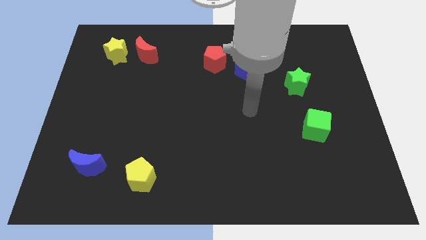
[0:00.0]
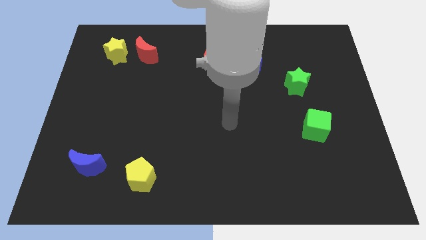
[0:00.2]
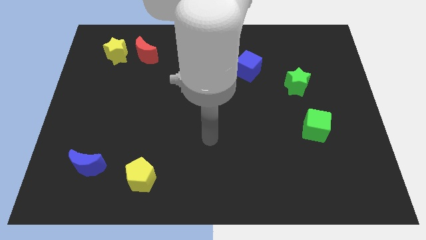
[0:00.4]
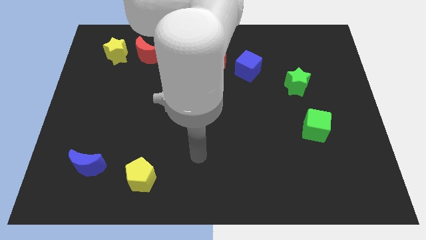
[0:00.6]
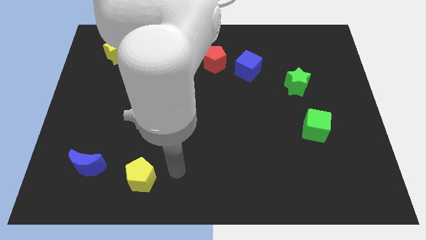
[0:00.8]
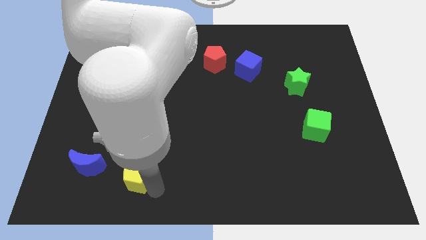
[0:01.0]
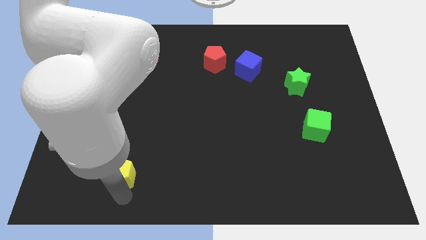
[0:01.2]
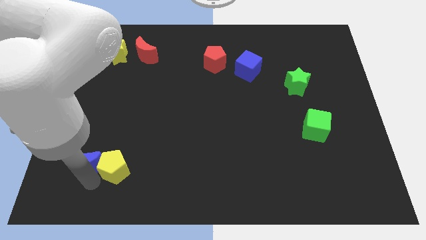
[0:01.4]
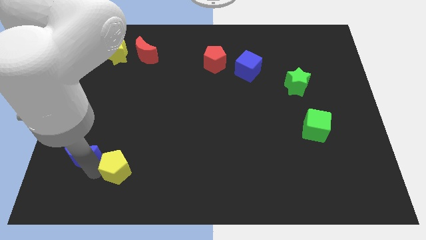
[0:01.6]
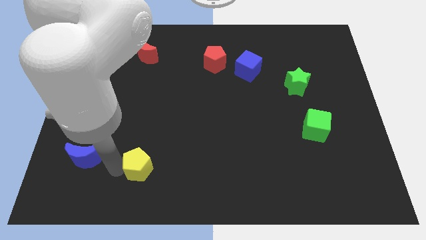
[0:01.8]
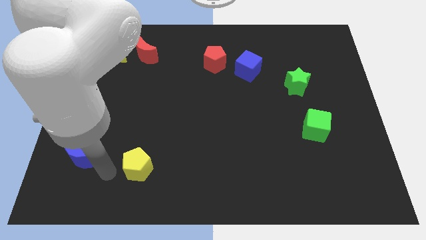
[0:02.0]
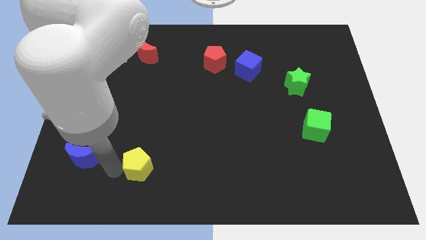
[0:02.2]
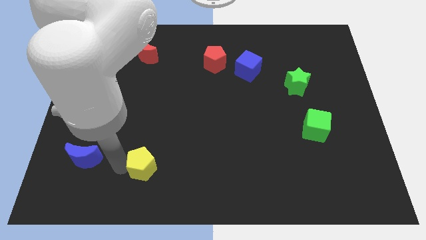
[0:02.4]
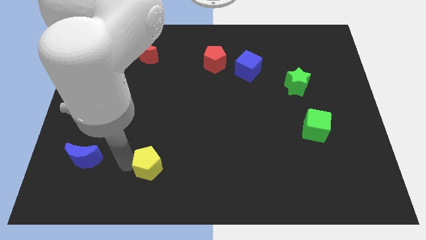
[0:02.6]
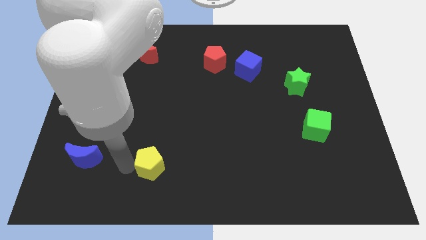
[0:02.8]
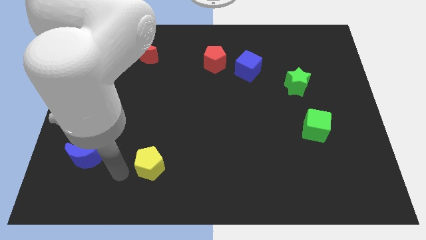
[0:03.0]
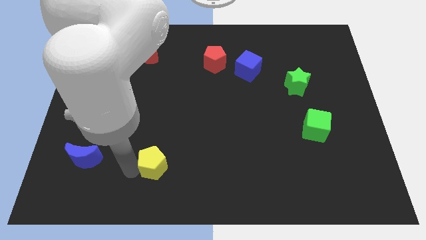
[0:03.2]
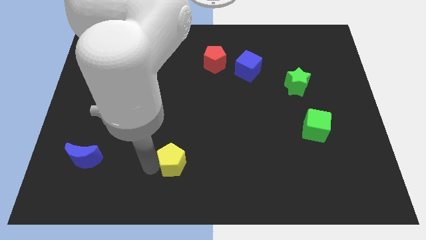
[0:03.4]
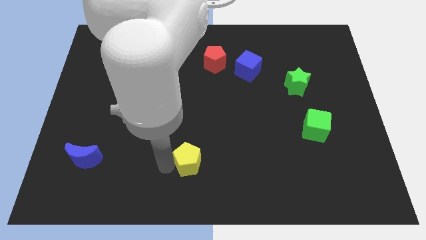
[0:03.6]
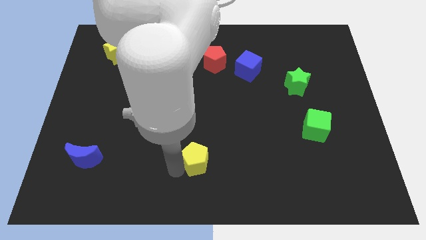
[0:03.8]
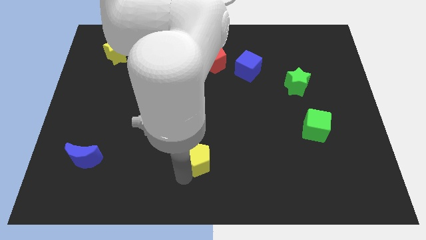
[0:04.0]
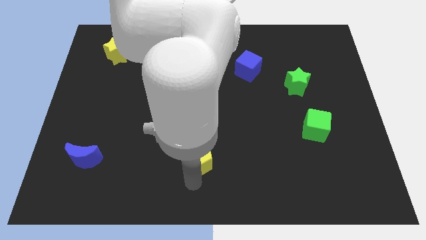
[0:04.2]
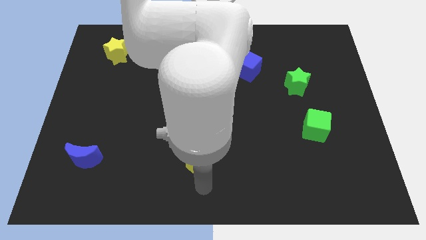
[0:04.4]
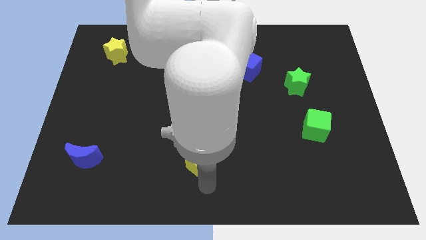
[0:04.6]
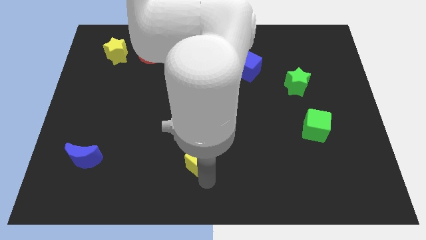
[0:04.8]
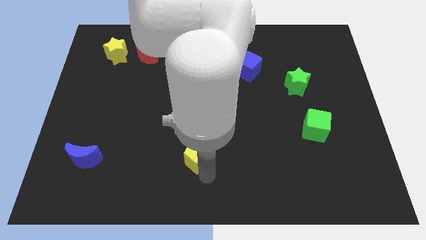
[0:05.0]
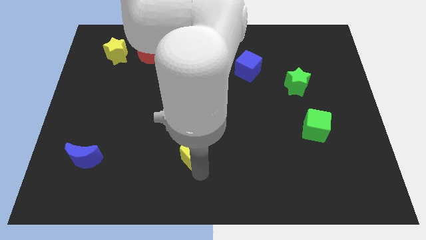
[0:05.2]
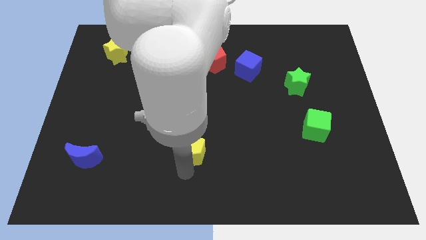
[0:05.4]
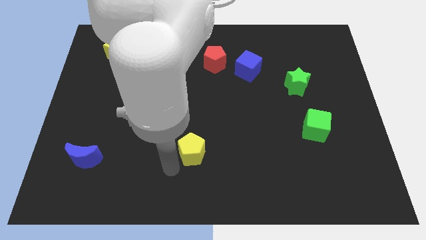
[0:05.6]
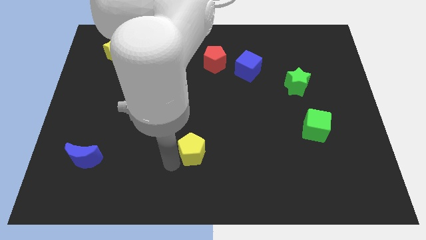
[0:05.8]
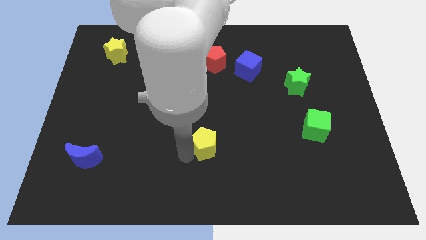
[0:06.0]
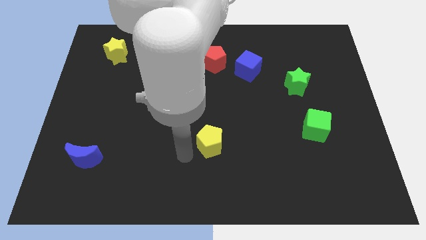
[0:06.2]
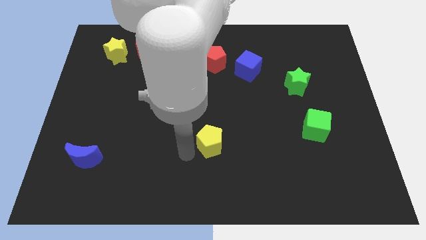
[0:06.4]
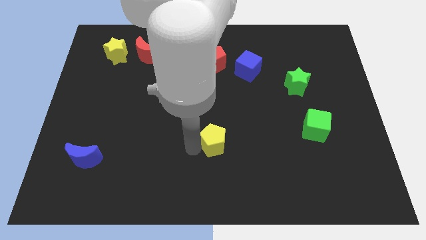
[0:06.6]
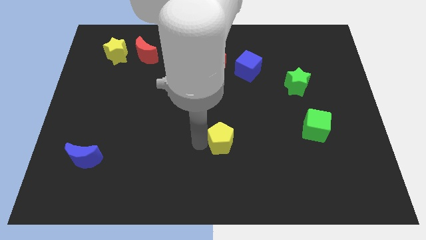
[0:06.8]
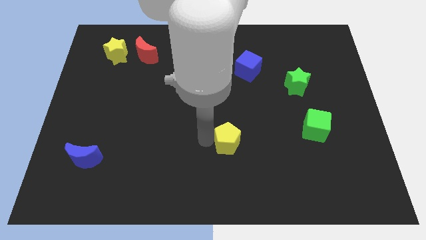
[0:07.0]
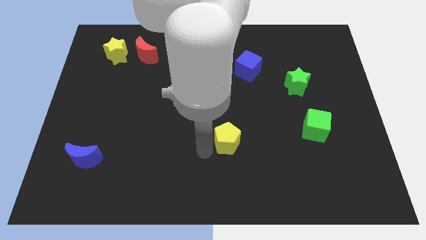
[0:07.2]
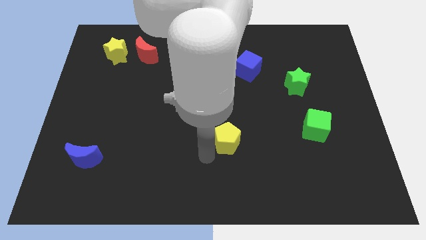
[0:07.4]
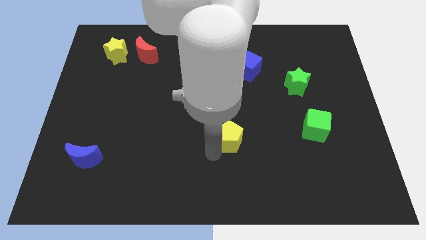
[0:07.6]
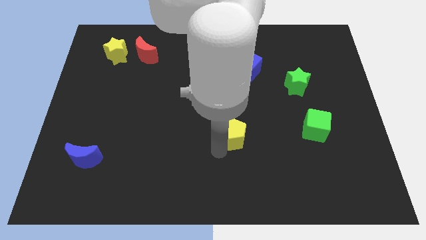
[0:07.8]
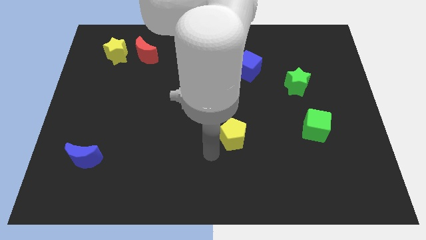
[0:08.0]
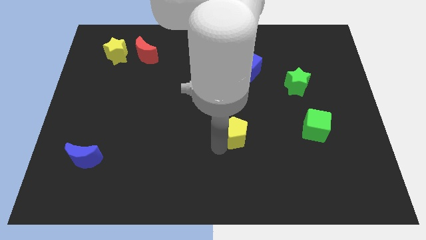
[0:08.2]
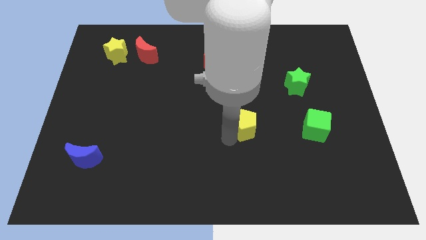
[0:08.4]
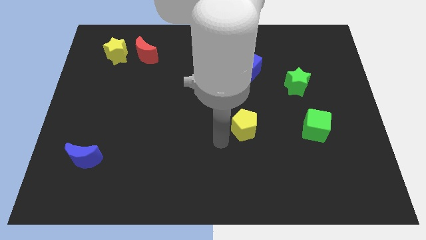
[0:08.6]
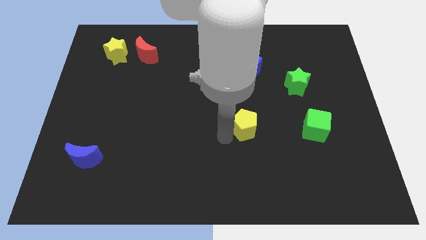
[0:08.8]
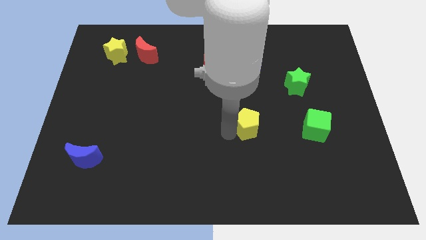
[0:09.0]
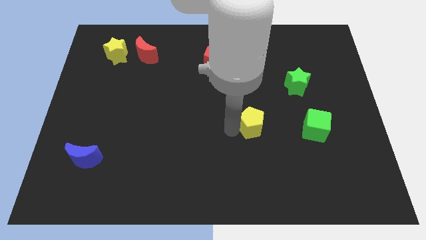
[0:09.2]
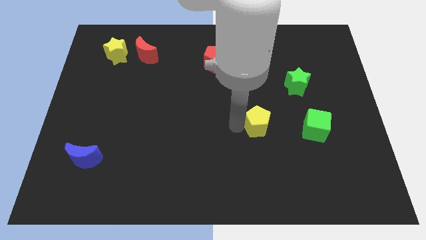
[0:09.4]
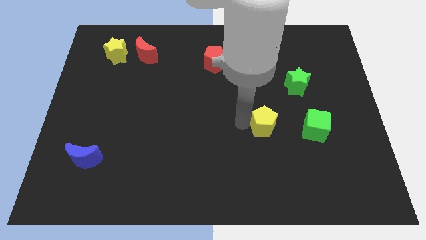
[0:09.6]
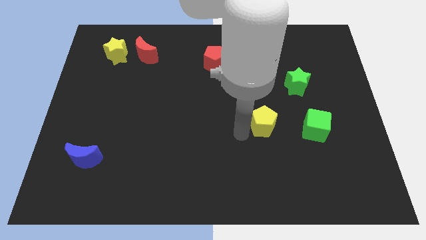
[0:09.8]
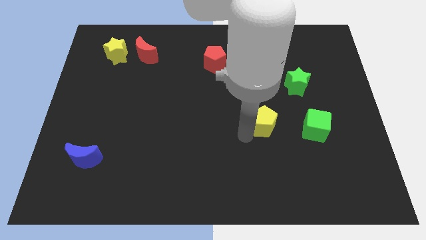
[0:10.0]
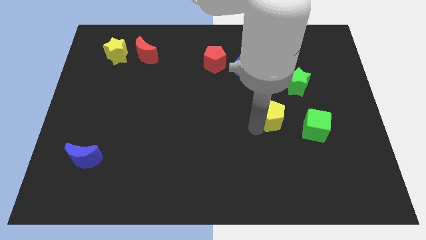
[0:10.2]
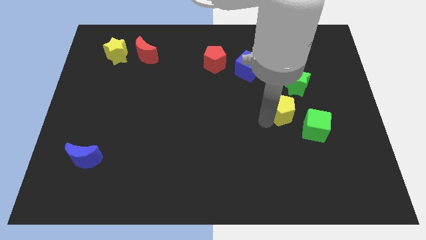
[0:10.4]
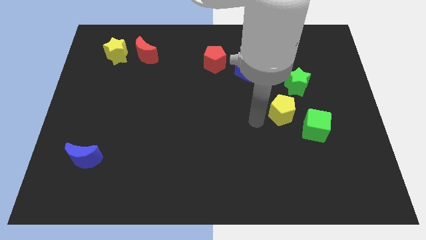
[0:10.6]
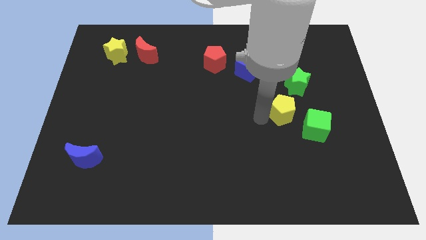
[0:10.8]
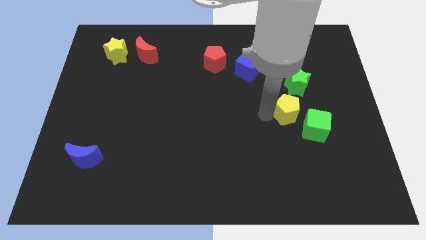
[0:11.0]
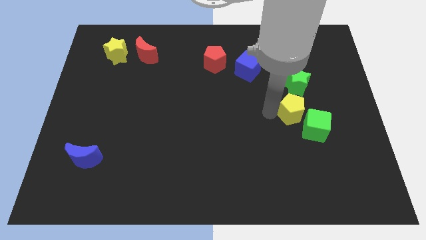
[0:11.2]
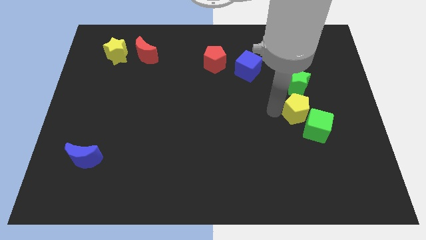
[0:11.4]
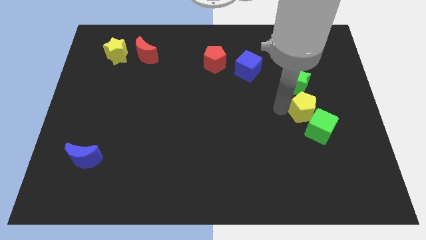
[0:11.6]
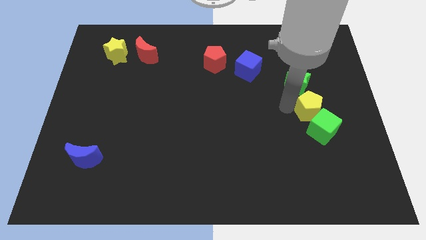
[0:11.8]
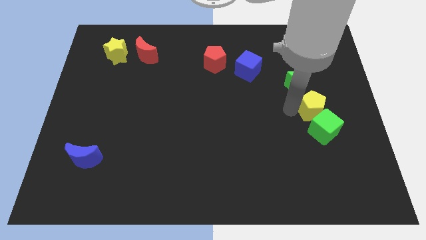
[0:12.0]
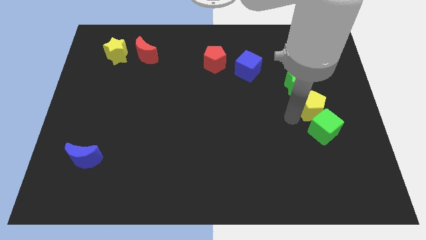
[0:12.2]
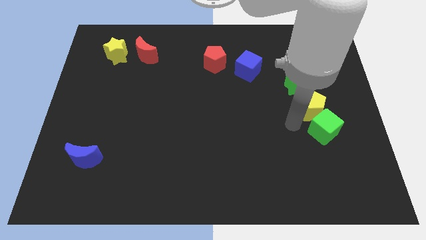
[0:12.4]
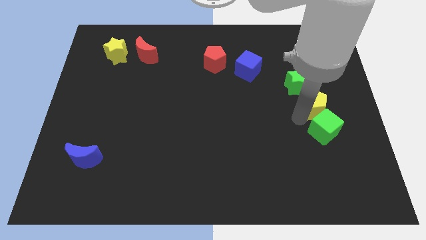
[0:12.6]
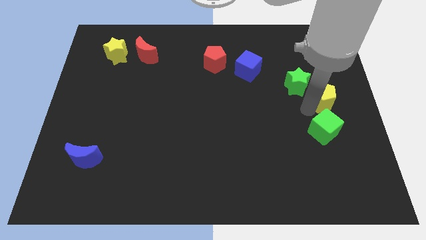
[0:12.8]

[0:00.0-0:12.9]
push the yellow pentagon to the center right
